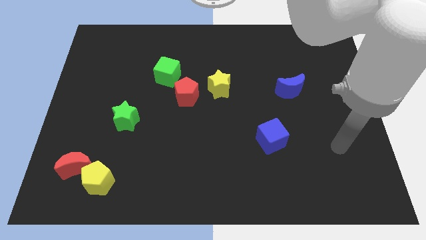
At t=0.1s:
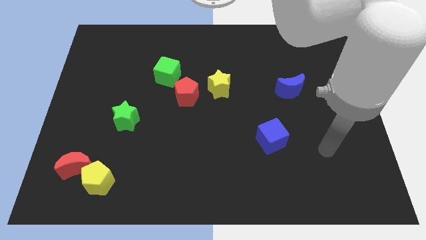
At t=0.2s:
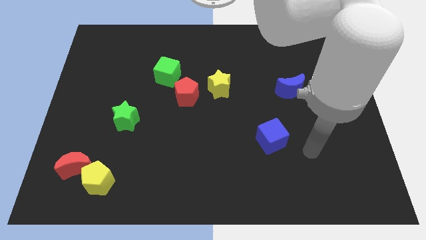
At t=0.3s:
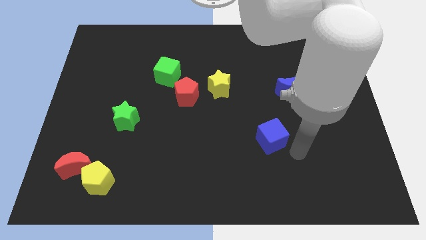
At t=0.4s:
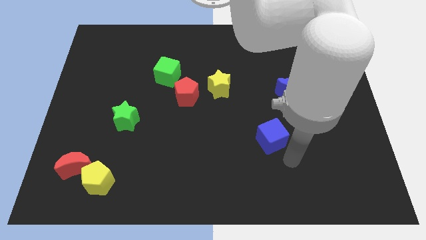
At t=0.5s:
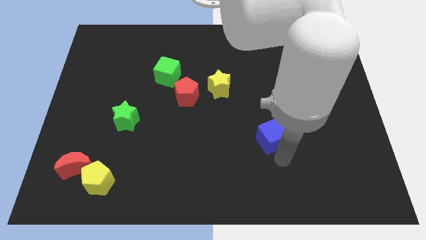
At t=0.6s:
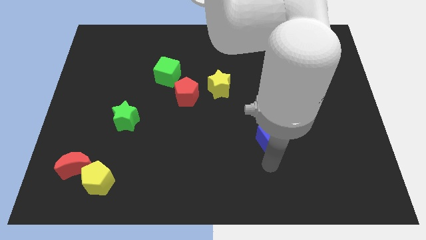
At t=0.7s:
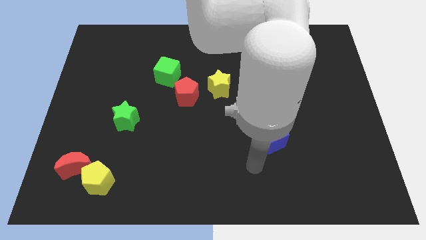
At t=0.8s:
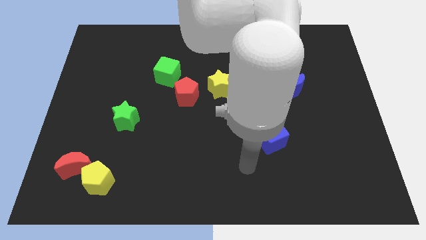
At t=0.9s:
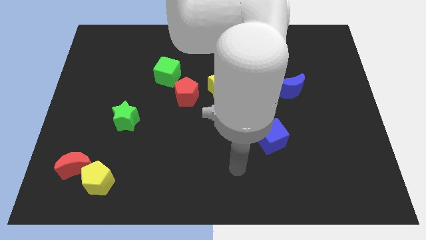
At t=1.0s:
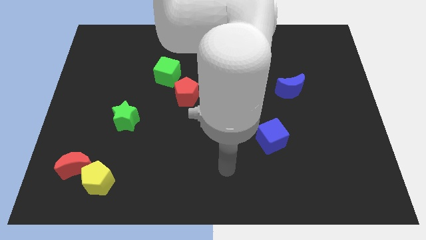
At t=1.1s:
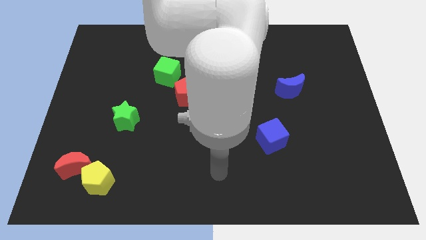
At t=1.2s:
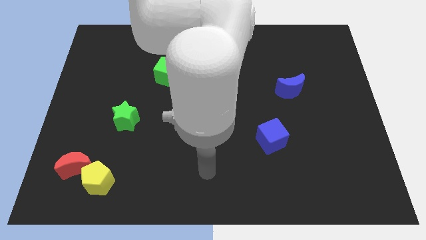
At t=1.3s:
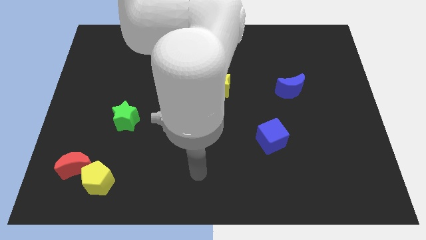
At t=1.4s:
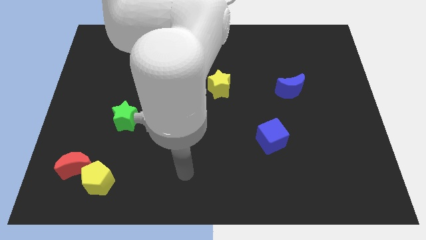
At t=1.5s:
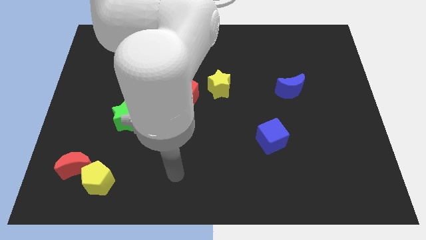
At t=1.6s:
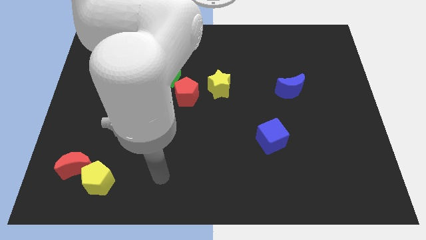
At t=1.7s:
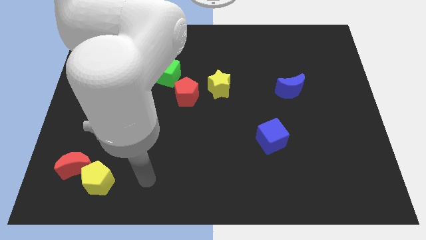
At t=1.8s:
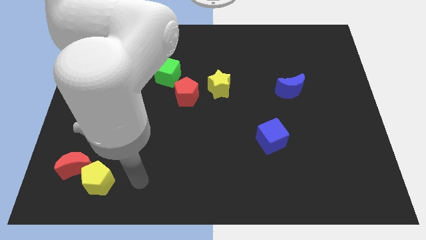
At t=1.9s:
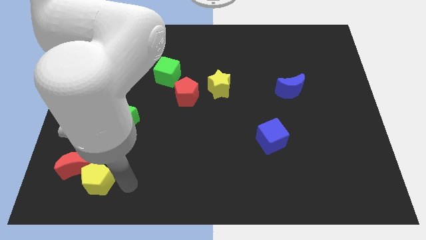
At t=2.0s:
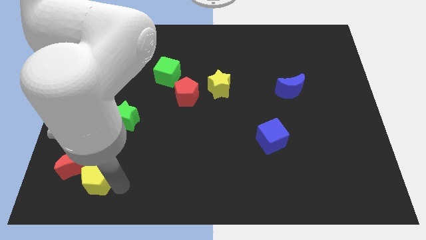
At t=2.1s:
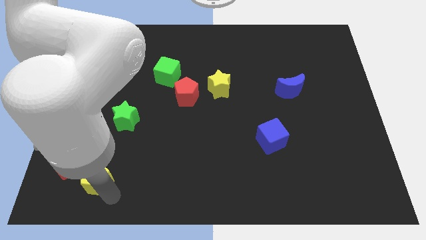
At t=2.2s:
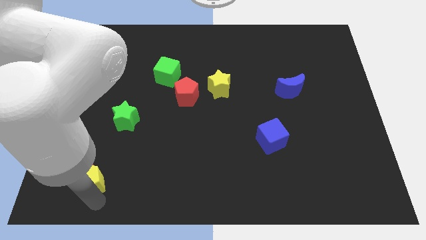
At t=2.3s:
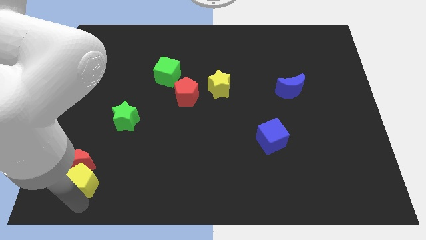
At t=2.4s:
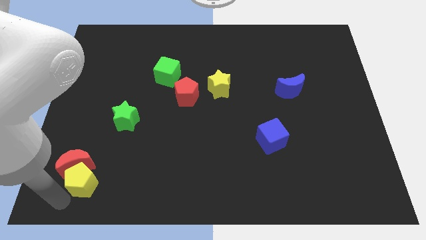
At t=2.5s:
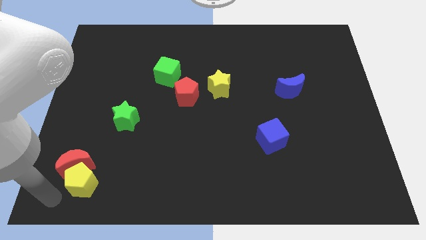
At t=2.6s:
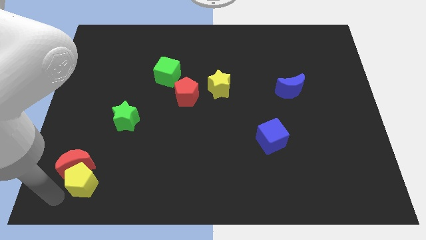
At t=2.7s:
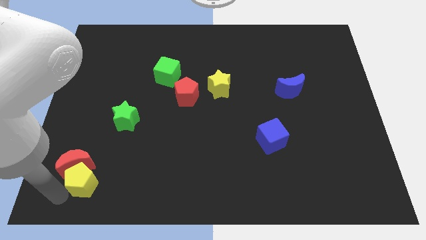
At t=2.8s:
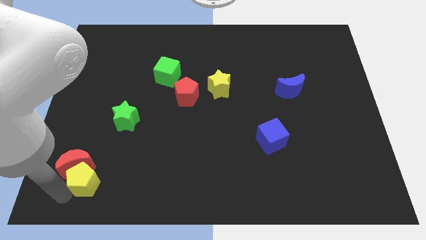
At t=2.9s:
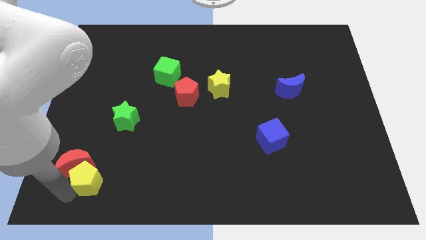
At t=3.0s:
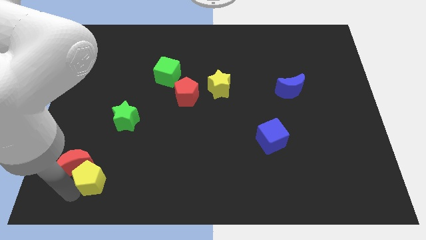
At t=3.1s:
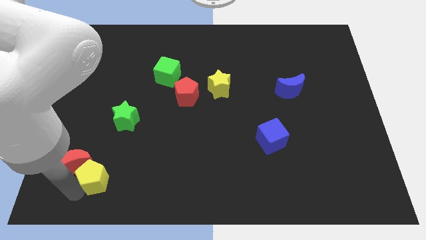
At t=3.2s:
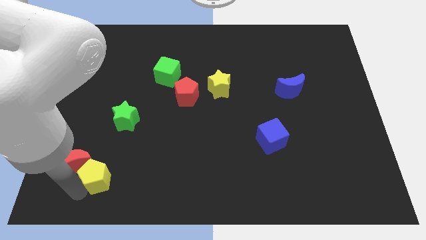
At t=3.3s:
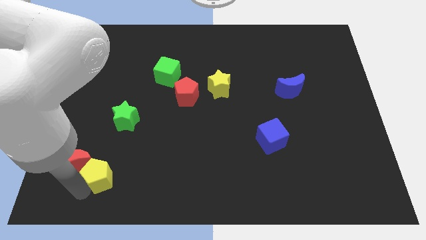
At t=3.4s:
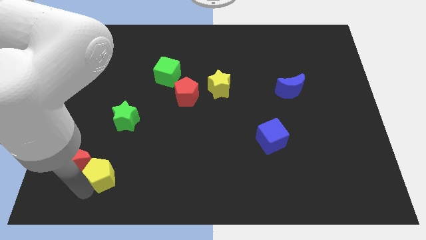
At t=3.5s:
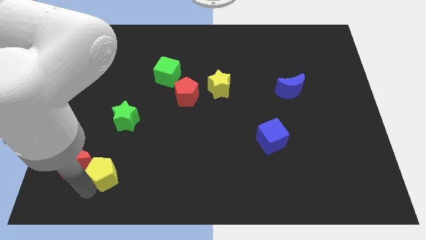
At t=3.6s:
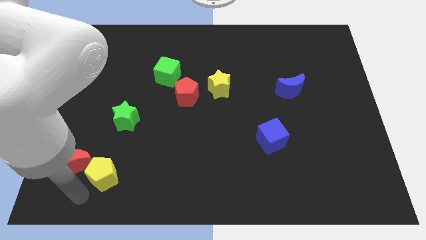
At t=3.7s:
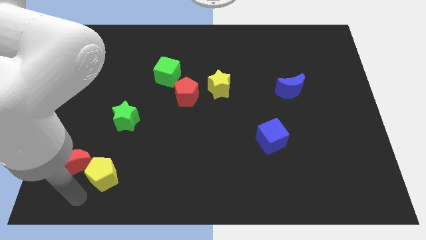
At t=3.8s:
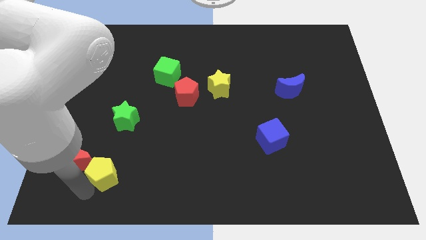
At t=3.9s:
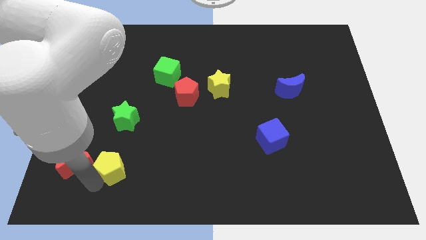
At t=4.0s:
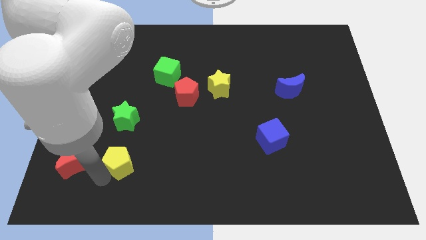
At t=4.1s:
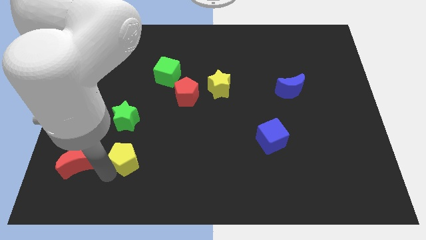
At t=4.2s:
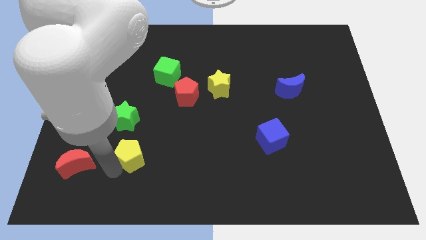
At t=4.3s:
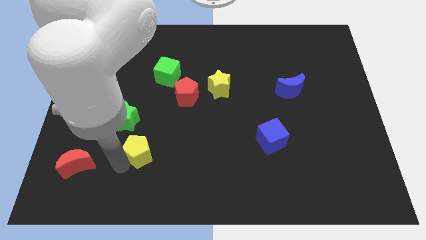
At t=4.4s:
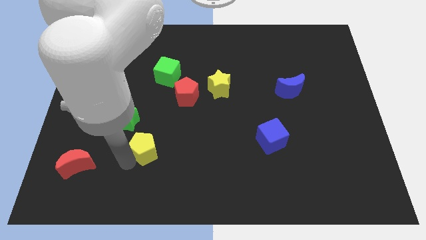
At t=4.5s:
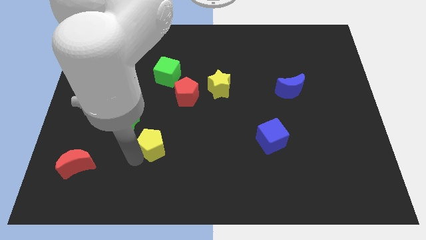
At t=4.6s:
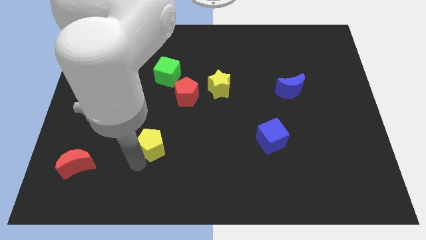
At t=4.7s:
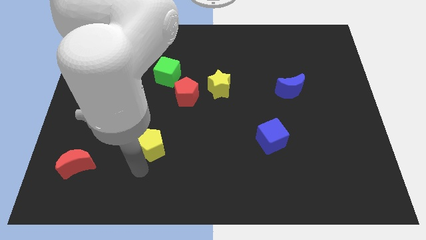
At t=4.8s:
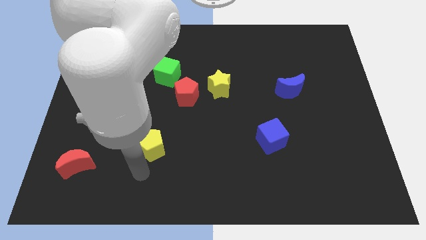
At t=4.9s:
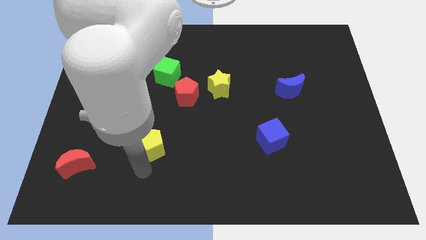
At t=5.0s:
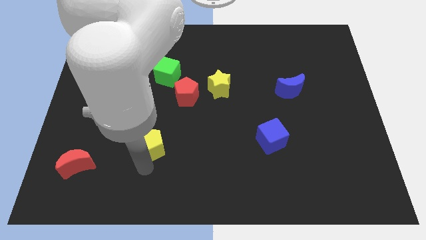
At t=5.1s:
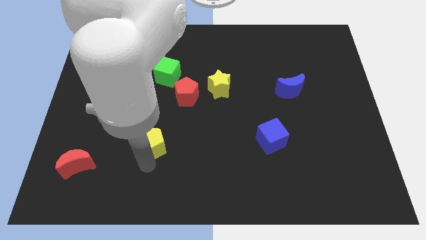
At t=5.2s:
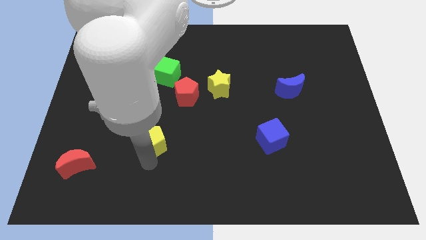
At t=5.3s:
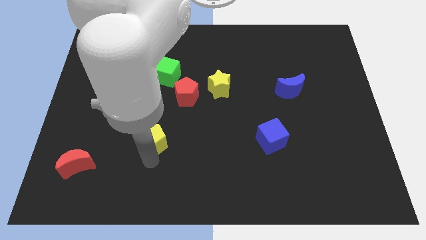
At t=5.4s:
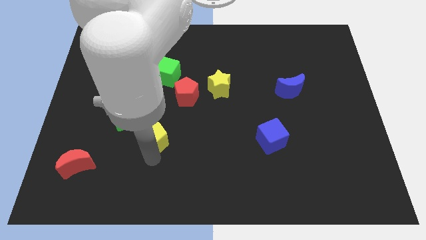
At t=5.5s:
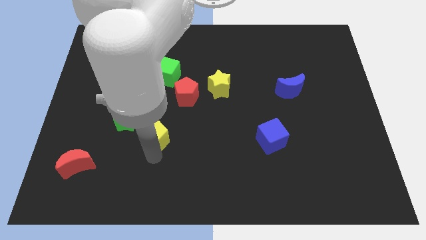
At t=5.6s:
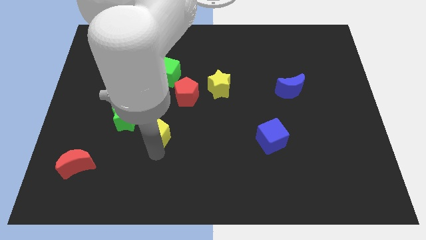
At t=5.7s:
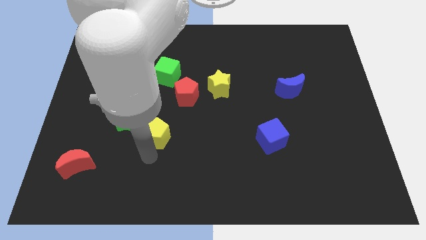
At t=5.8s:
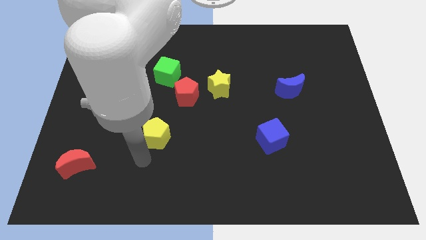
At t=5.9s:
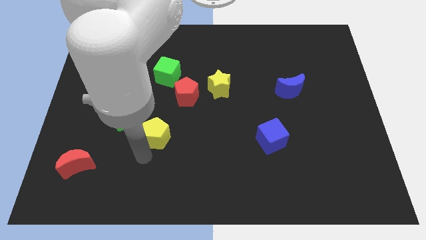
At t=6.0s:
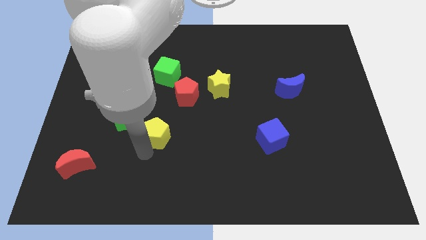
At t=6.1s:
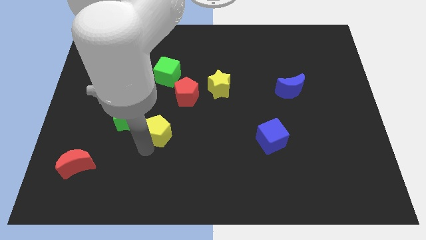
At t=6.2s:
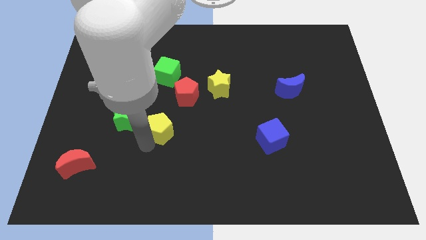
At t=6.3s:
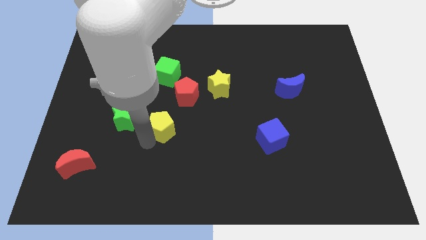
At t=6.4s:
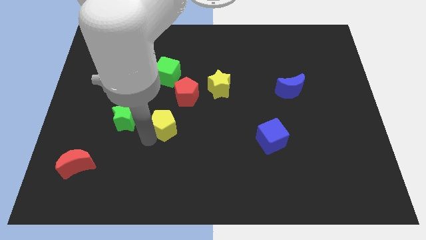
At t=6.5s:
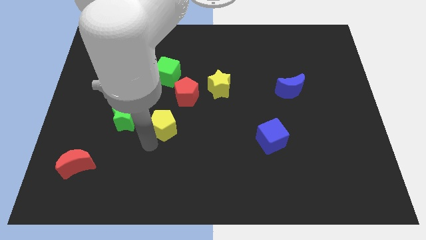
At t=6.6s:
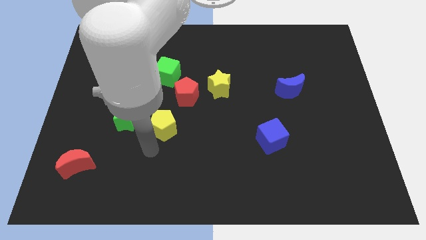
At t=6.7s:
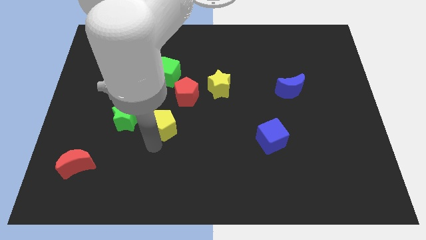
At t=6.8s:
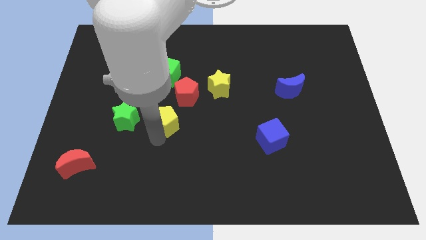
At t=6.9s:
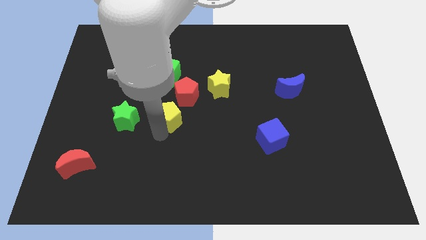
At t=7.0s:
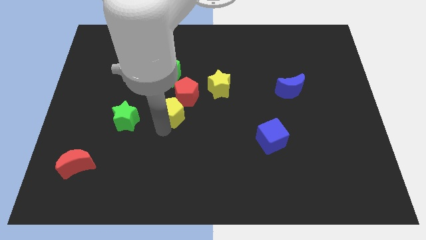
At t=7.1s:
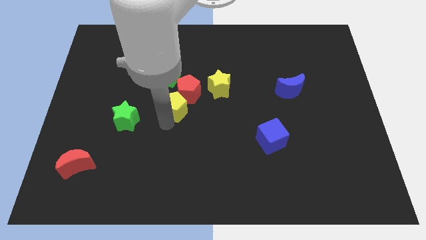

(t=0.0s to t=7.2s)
slide the yellow pentagon next to the red pentagon

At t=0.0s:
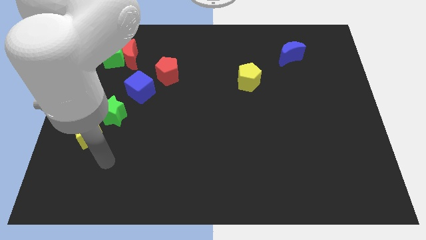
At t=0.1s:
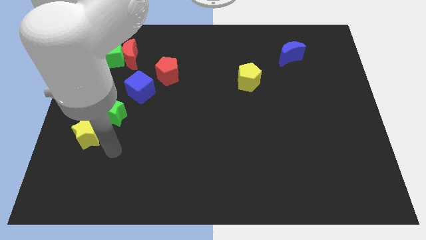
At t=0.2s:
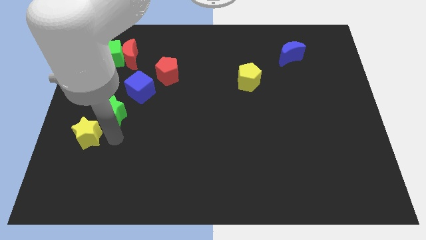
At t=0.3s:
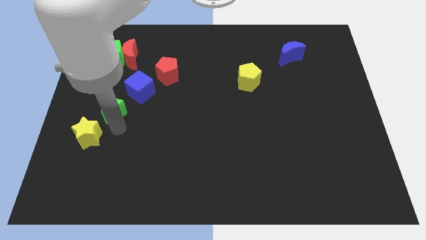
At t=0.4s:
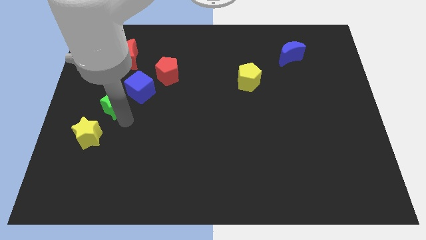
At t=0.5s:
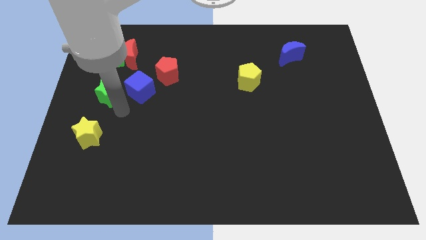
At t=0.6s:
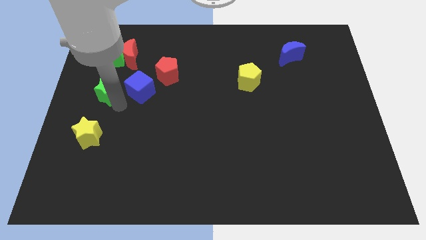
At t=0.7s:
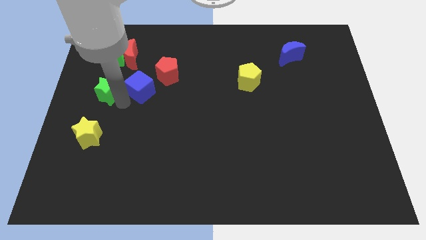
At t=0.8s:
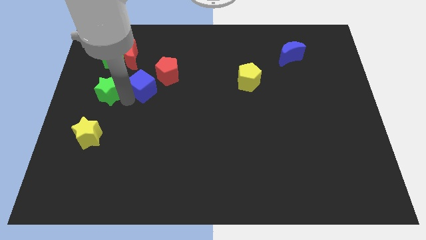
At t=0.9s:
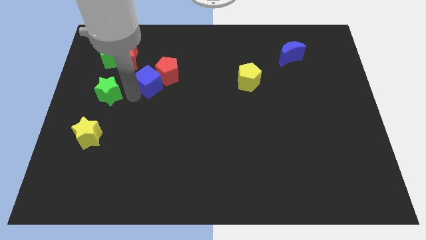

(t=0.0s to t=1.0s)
push the blue cube close to the red pentagon
